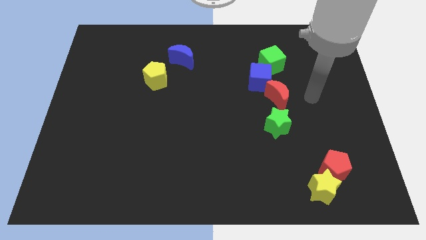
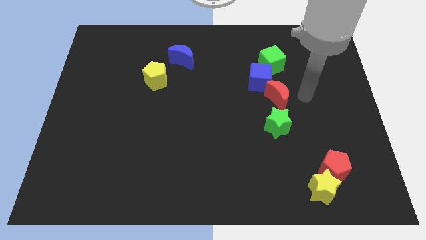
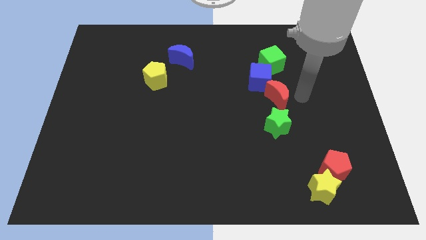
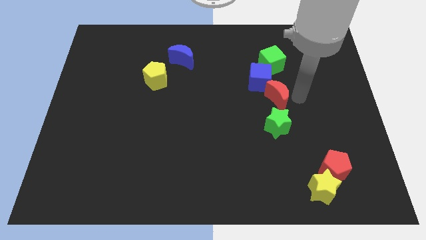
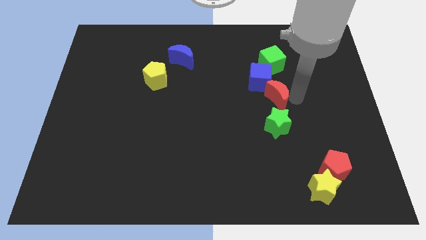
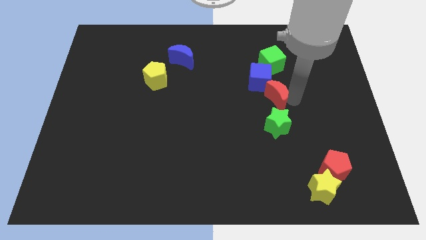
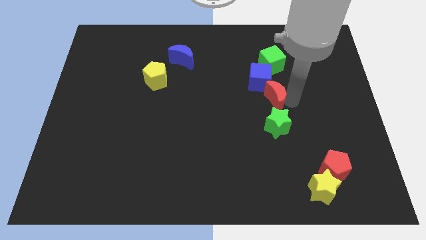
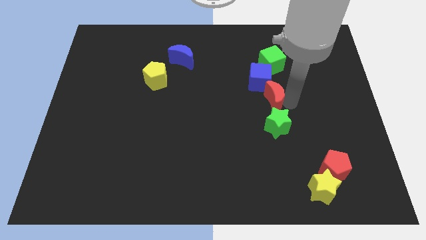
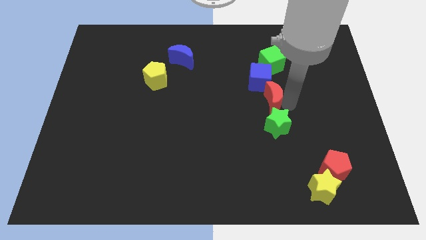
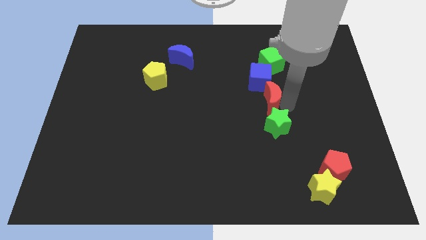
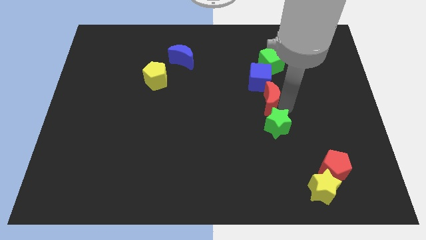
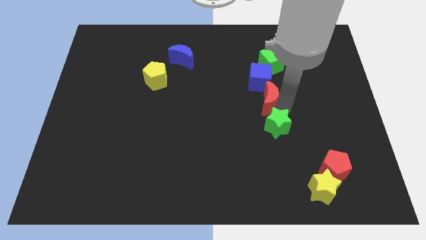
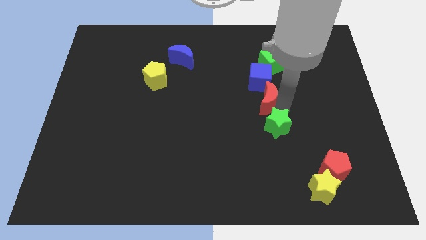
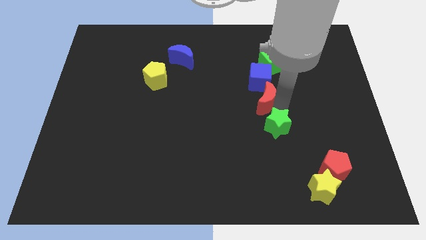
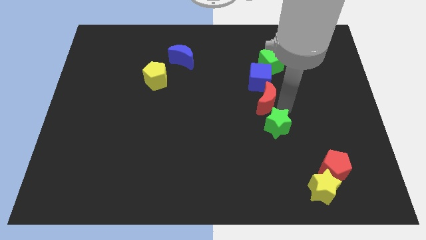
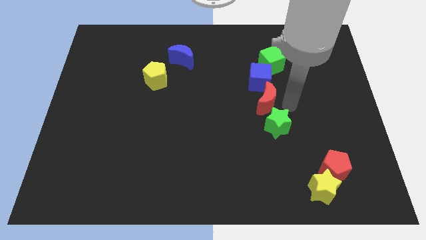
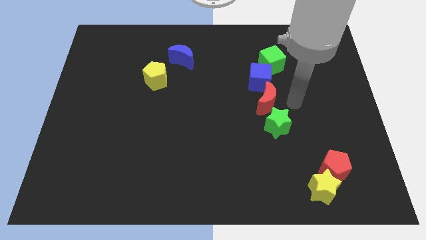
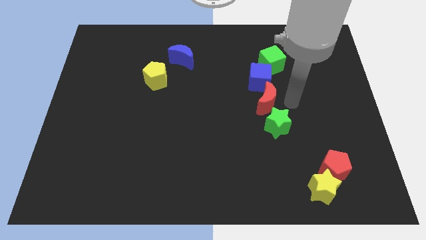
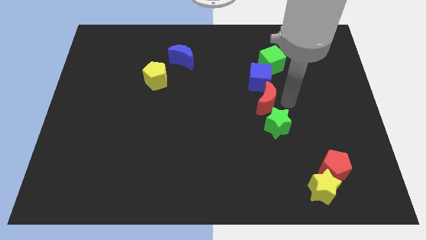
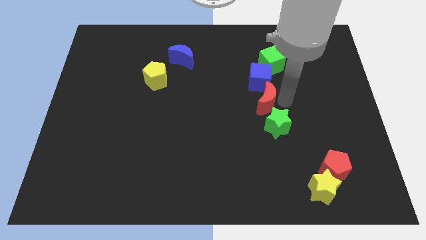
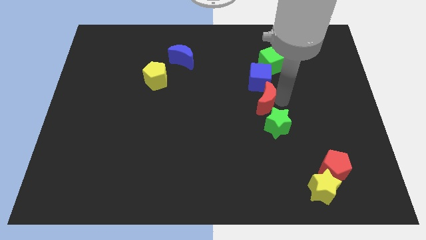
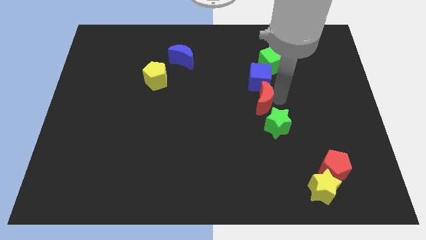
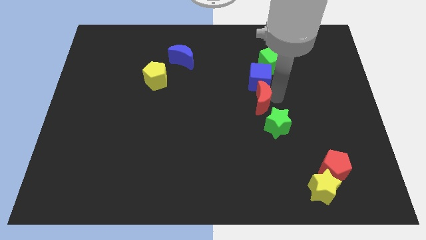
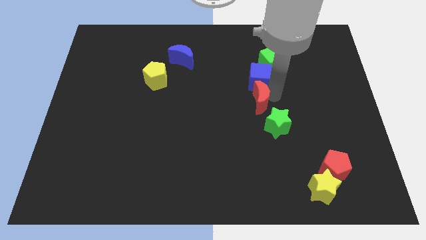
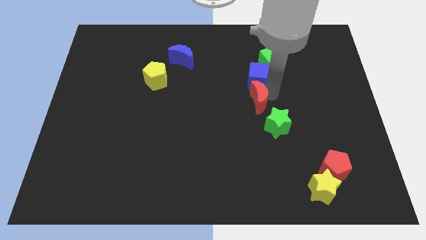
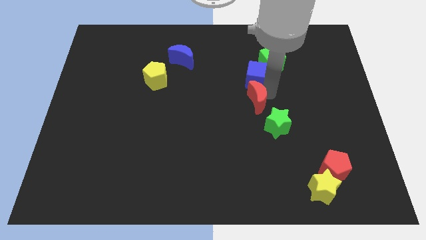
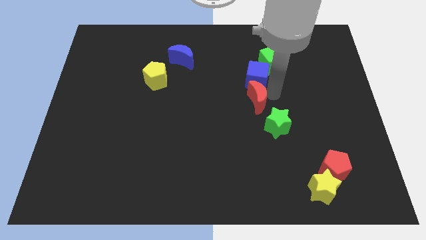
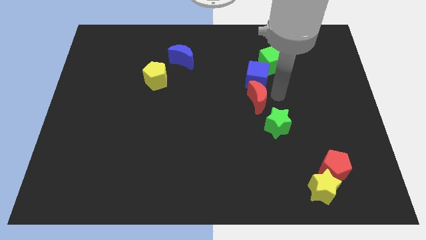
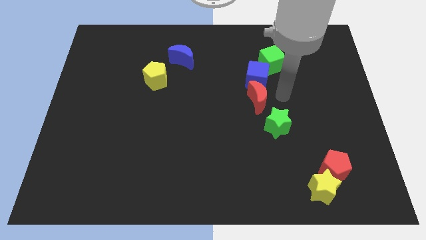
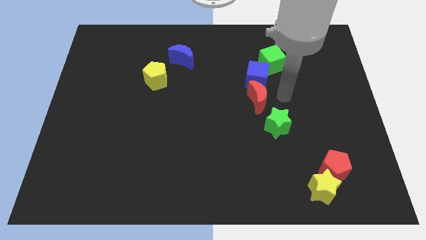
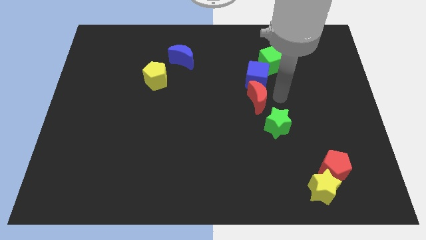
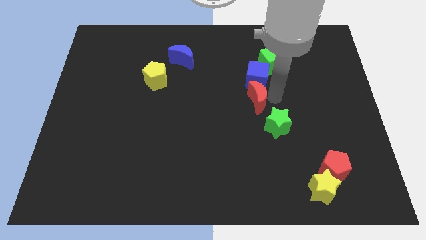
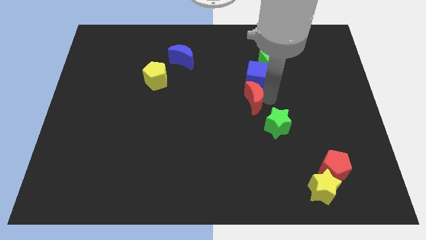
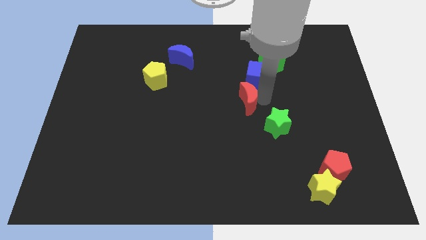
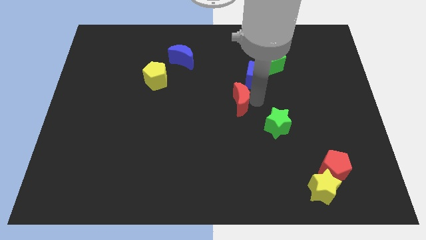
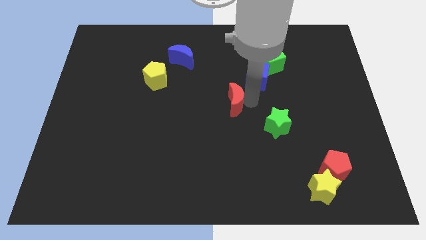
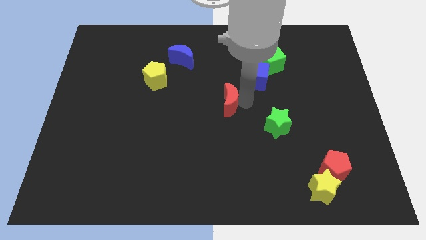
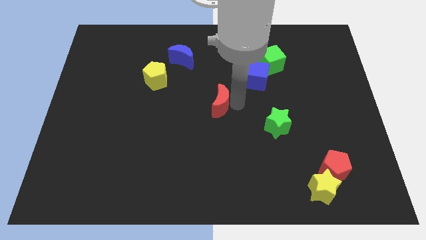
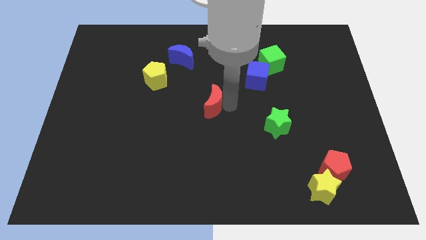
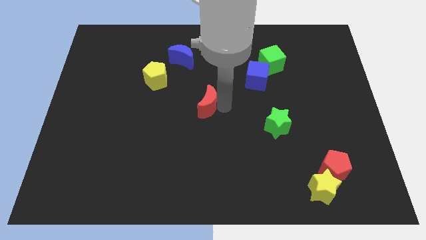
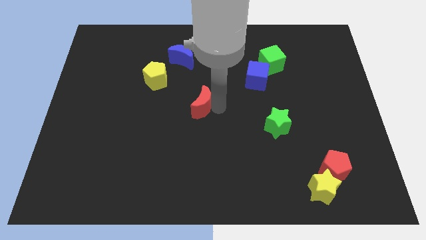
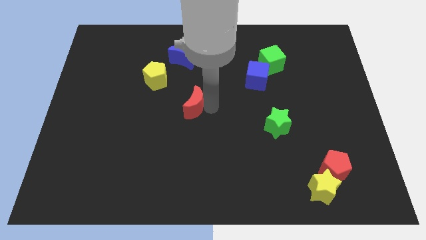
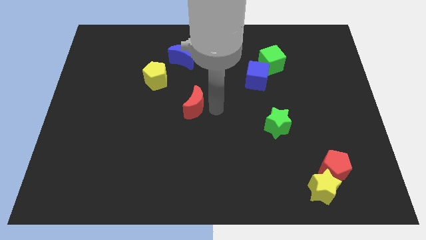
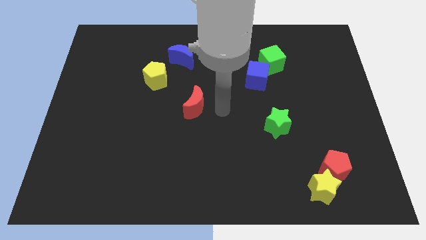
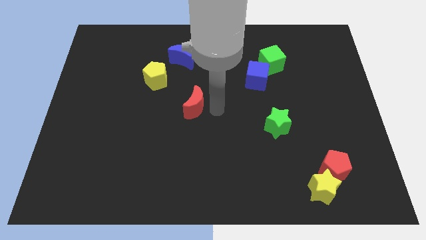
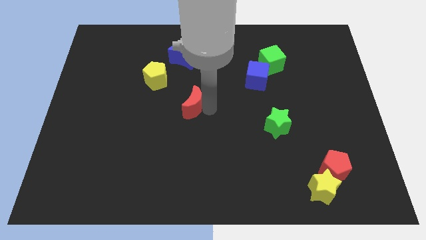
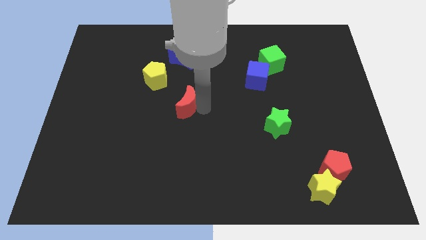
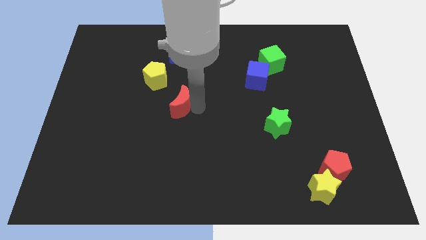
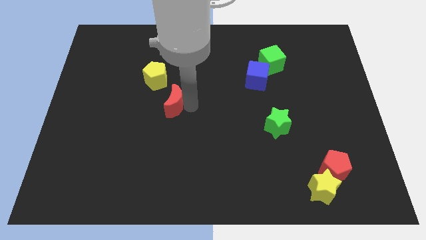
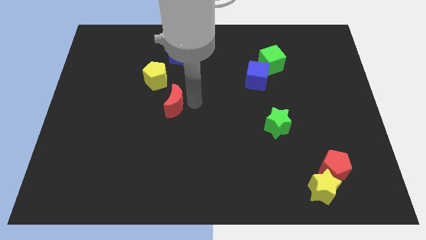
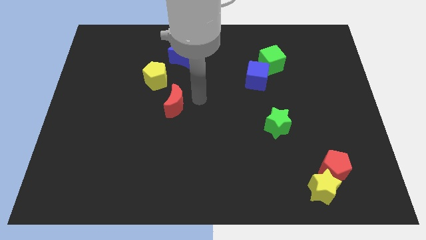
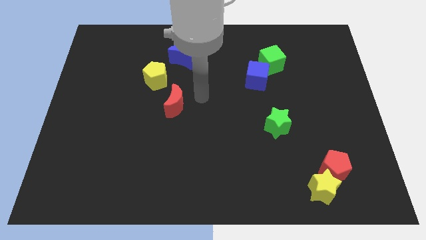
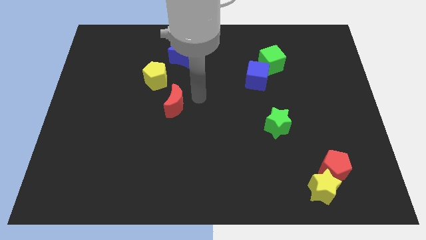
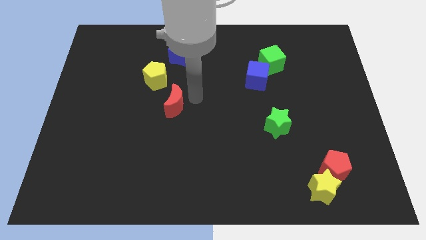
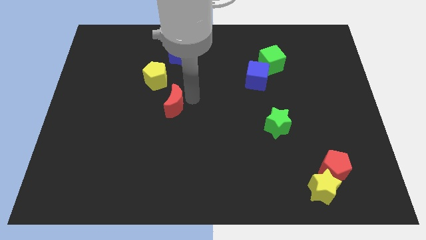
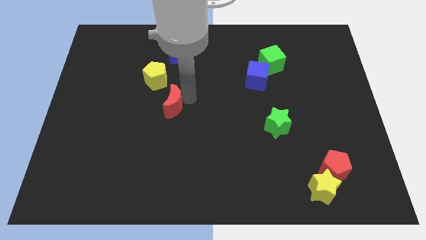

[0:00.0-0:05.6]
slide the red moon to the bottom side of the yellow pentagon

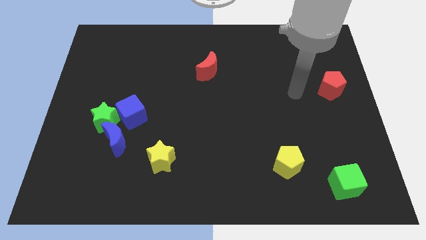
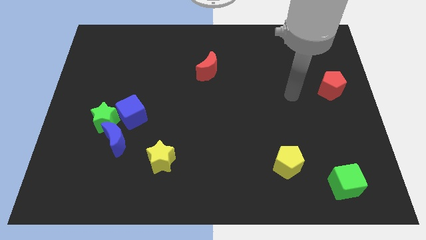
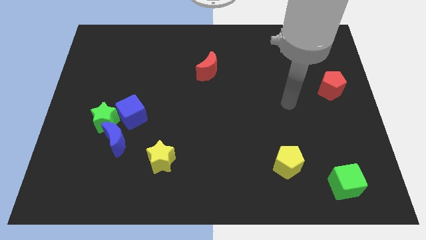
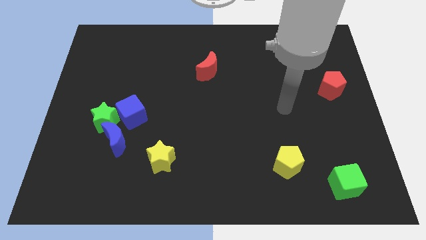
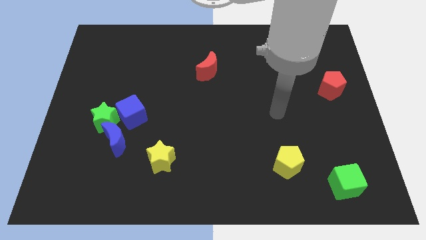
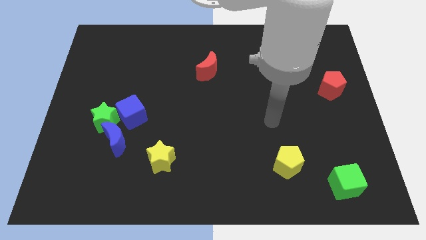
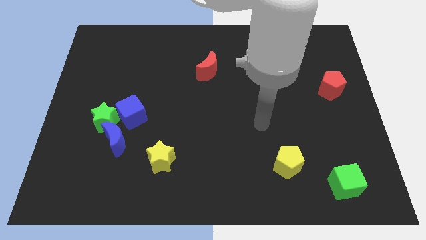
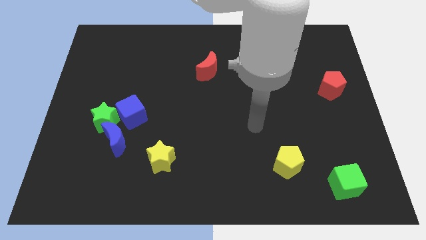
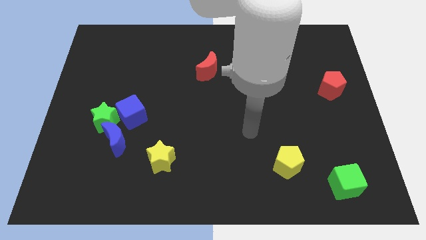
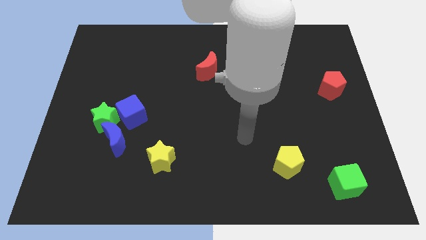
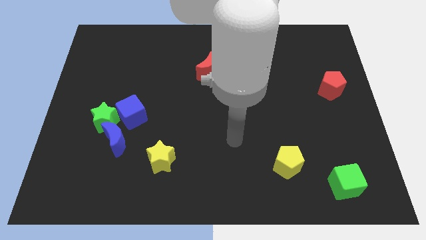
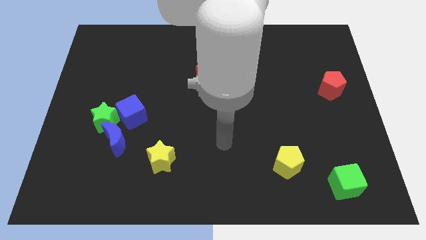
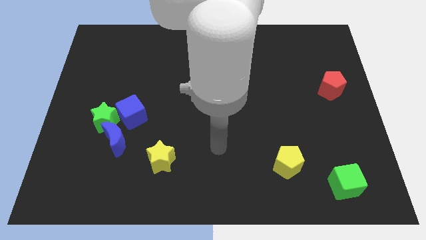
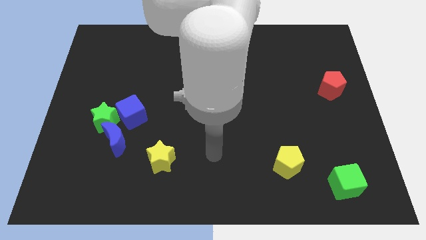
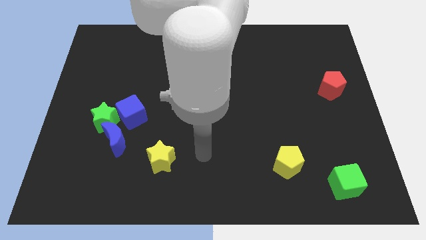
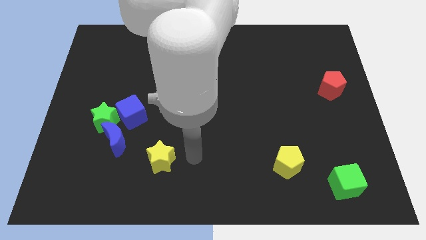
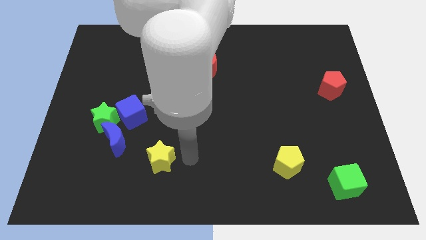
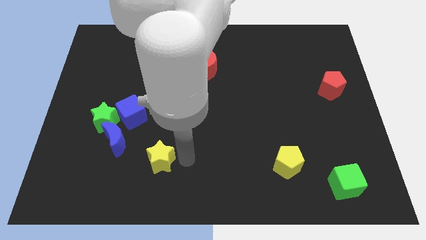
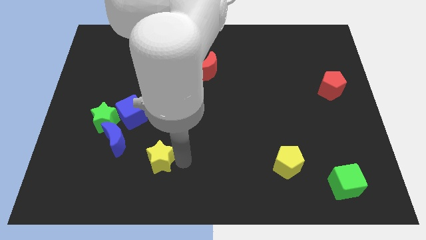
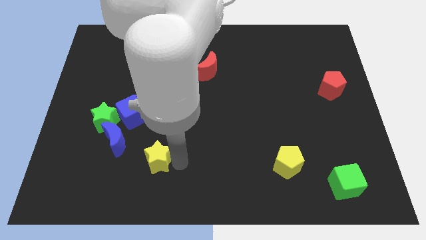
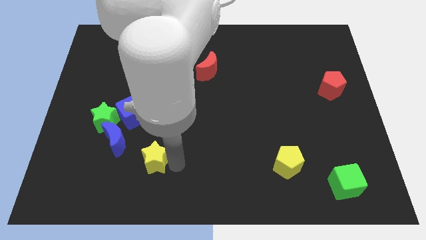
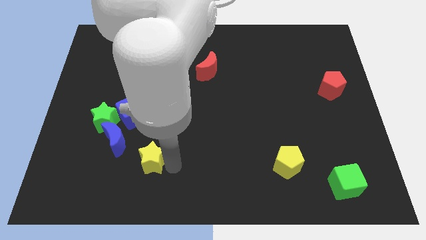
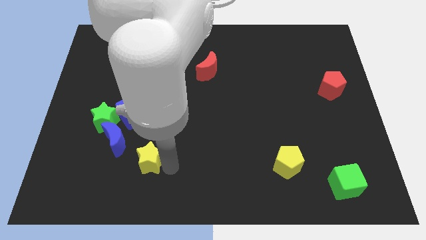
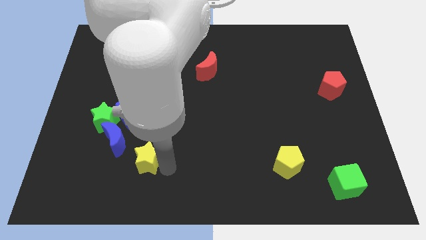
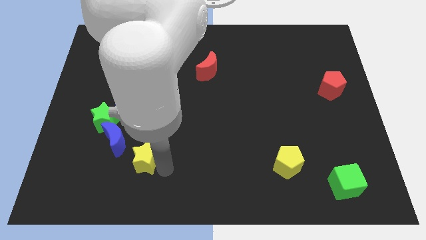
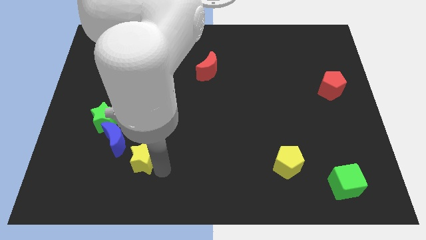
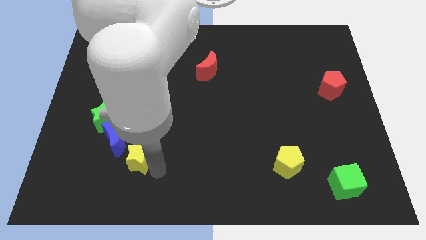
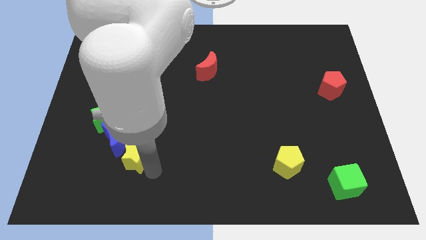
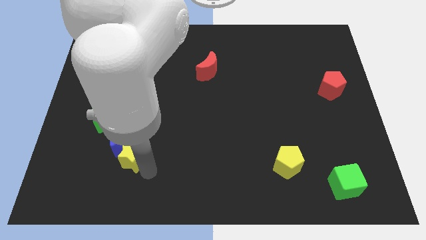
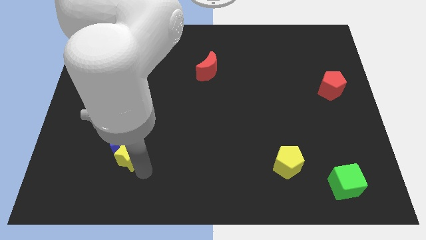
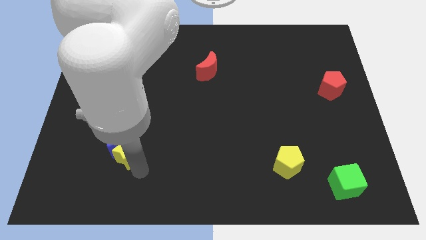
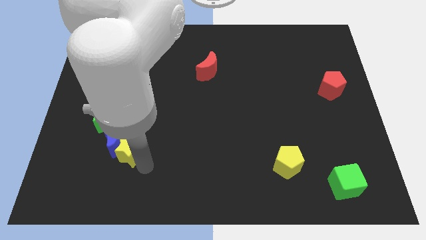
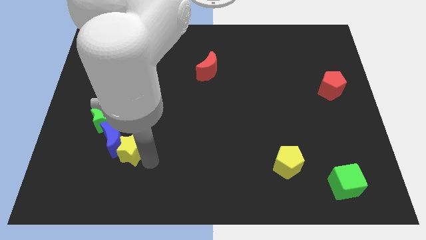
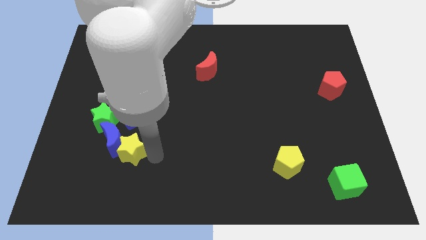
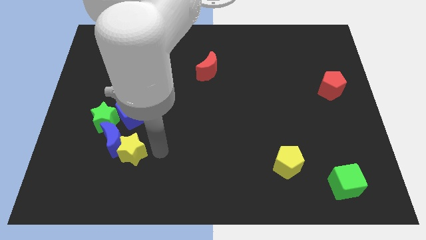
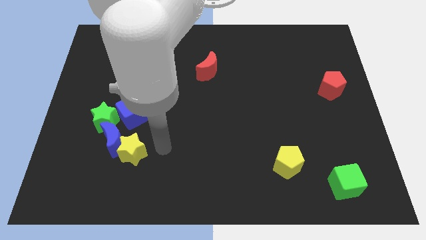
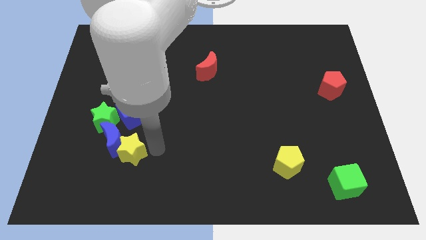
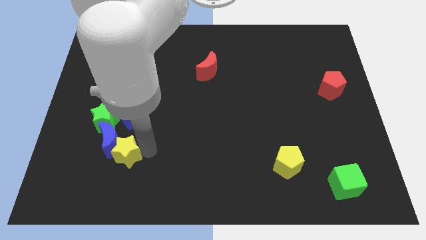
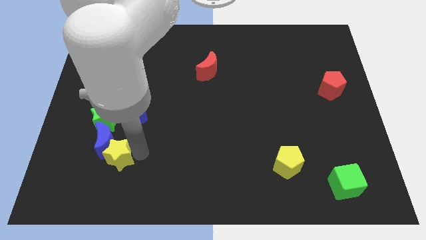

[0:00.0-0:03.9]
put the yellow star to the bottom of the green star
